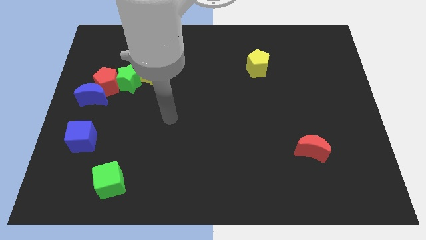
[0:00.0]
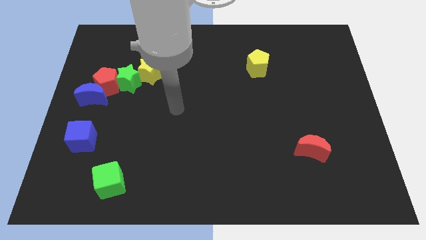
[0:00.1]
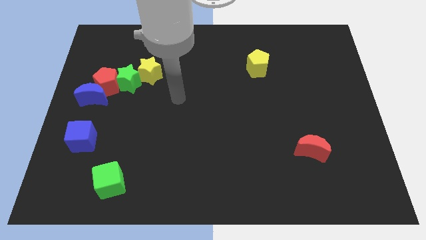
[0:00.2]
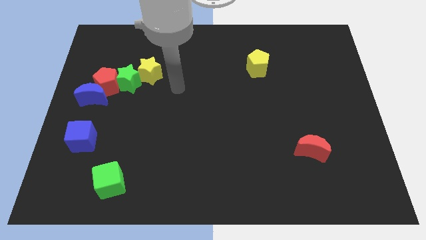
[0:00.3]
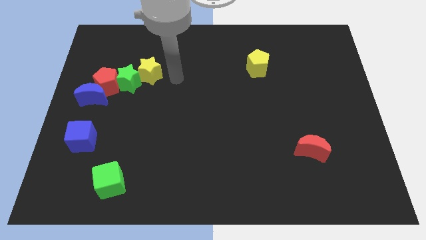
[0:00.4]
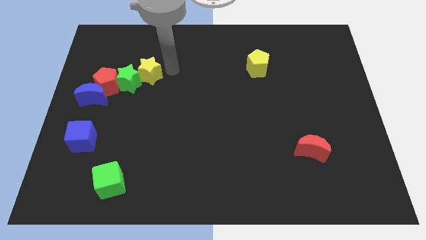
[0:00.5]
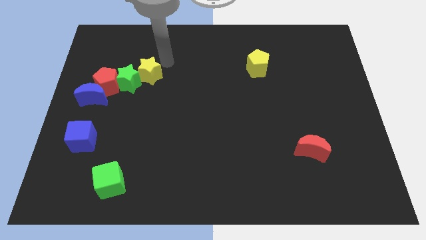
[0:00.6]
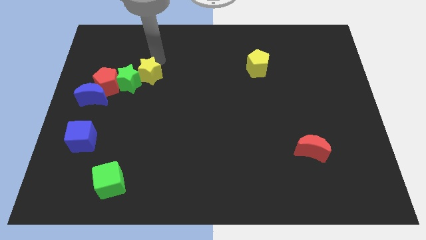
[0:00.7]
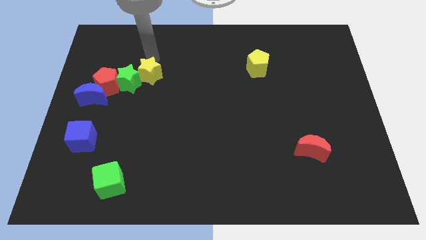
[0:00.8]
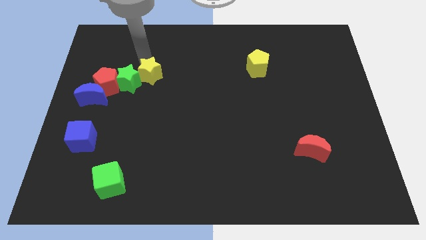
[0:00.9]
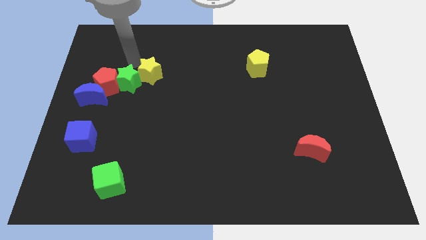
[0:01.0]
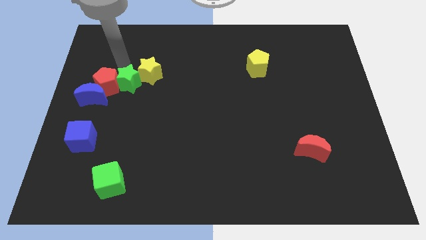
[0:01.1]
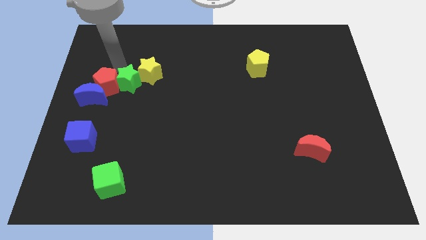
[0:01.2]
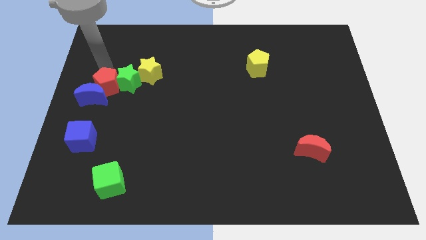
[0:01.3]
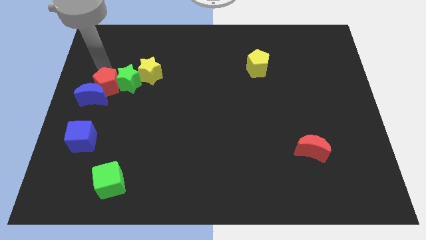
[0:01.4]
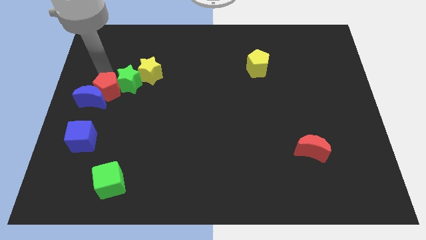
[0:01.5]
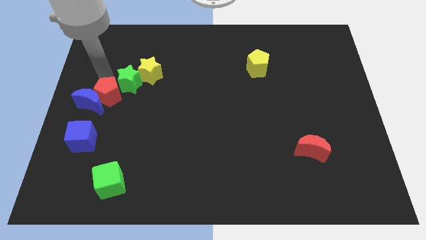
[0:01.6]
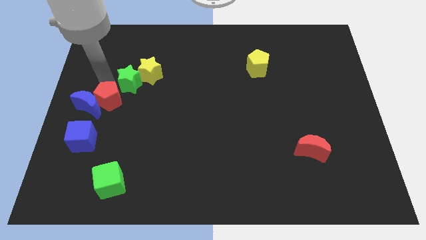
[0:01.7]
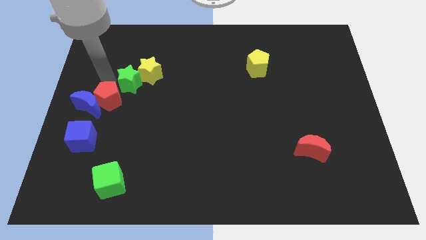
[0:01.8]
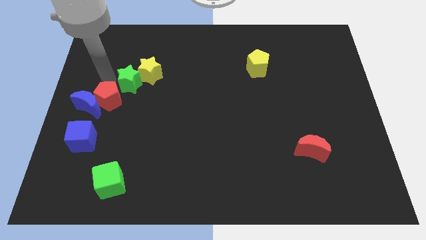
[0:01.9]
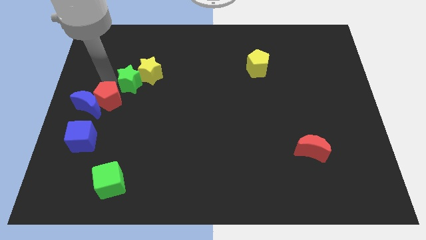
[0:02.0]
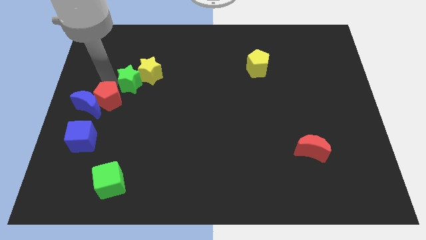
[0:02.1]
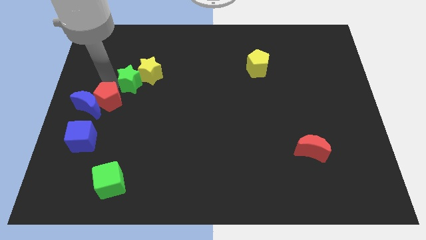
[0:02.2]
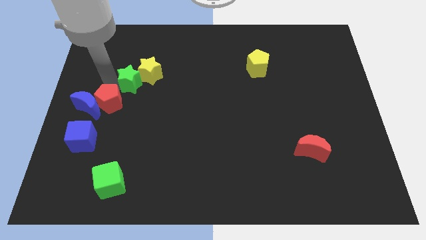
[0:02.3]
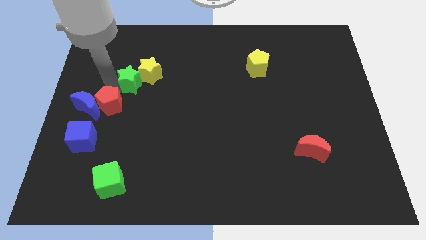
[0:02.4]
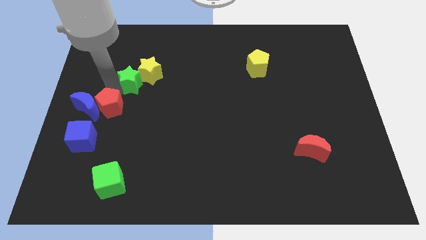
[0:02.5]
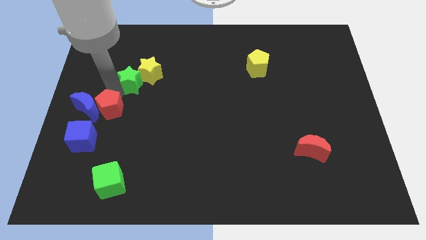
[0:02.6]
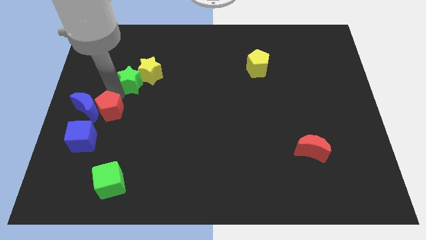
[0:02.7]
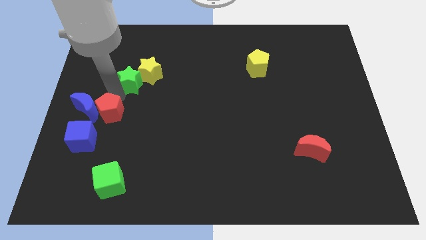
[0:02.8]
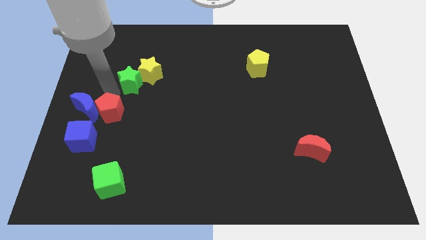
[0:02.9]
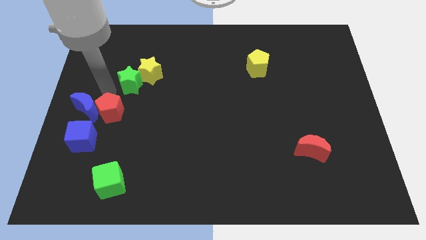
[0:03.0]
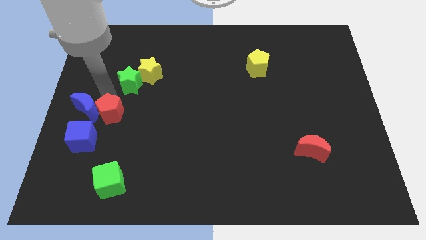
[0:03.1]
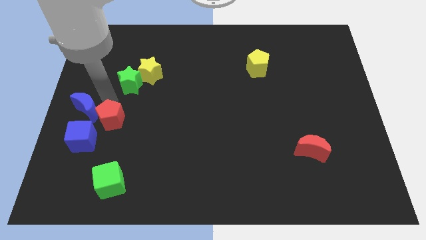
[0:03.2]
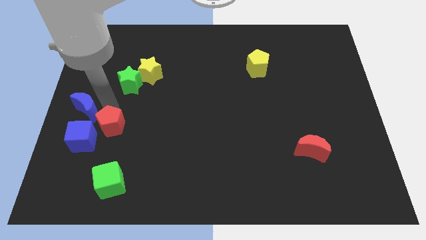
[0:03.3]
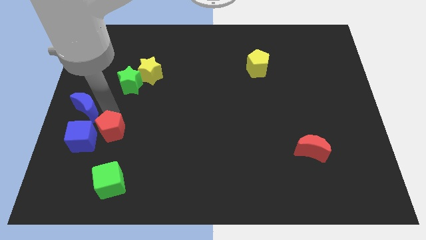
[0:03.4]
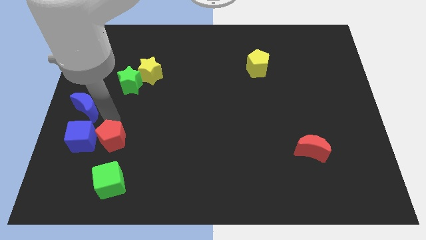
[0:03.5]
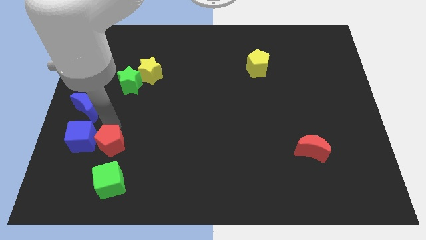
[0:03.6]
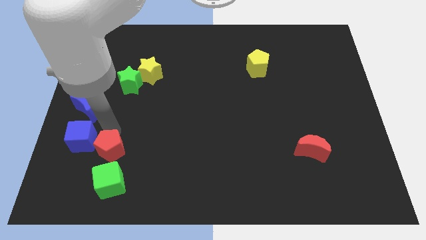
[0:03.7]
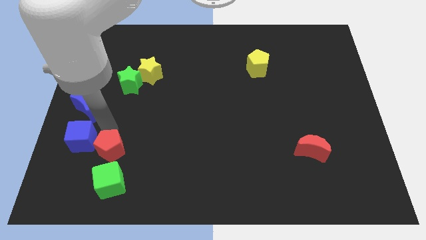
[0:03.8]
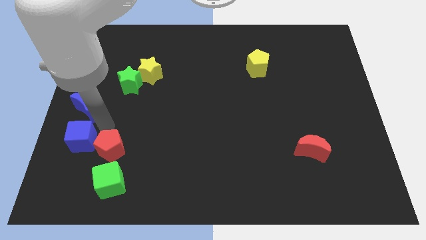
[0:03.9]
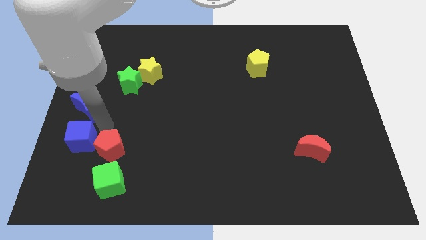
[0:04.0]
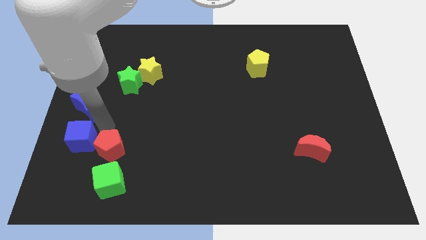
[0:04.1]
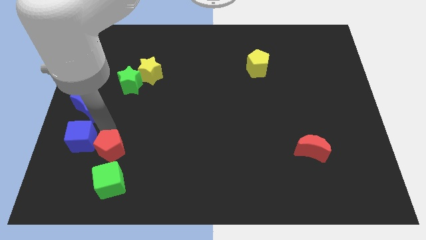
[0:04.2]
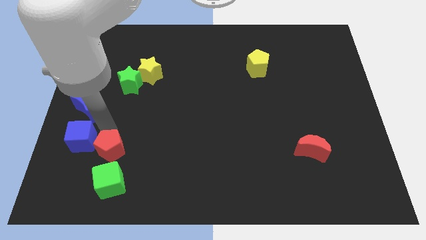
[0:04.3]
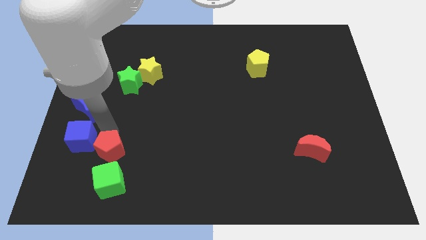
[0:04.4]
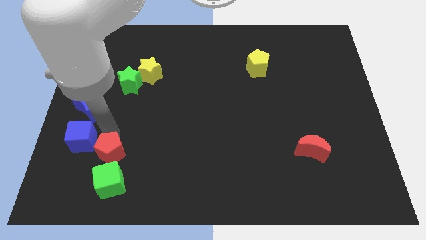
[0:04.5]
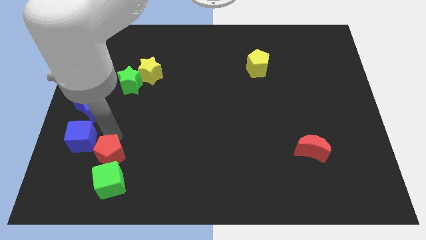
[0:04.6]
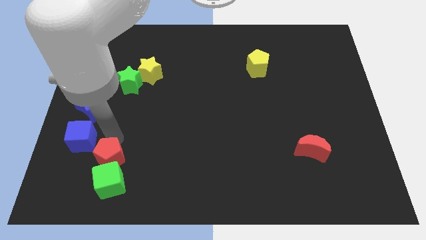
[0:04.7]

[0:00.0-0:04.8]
put the red pentagon next to the green cube

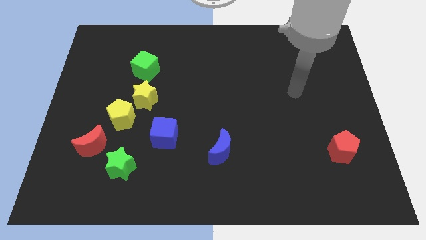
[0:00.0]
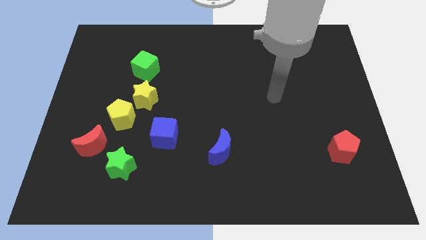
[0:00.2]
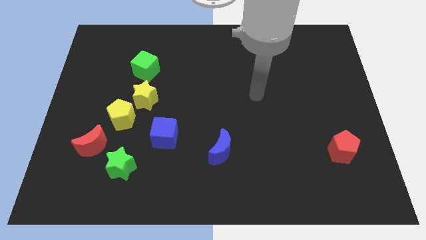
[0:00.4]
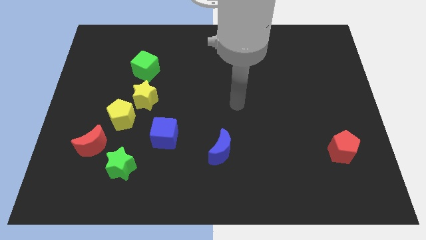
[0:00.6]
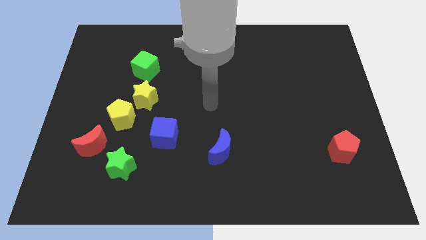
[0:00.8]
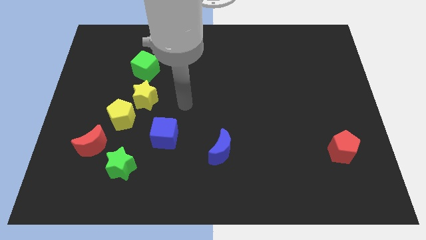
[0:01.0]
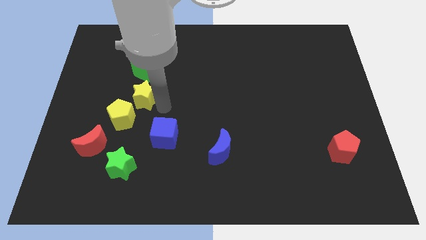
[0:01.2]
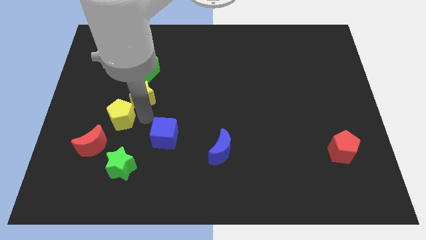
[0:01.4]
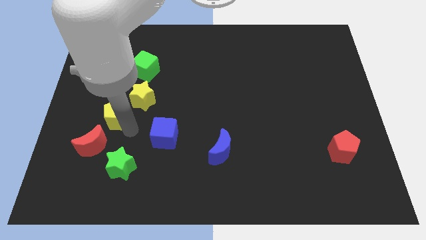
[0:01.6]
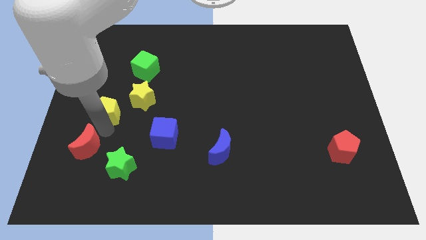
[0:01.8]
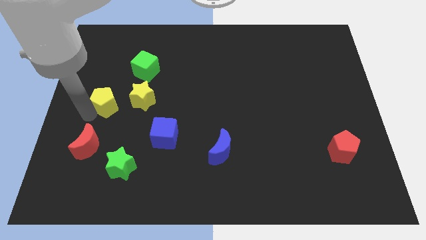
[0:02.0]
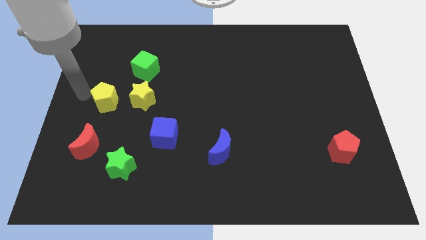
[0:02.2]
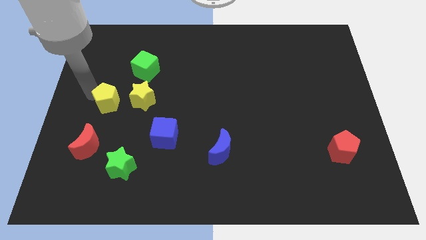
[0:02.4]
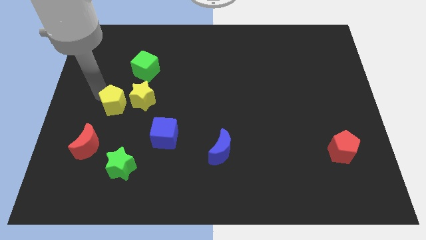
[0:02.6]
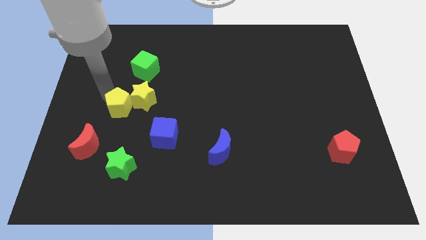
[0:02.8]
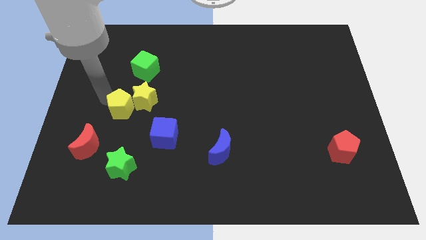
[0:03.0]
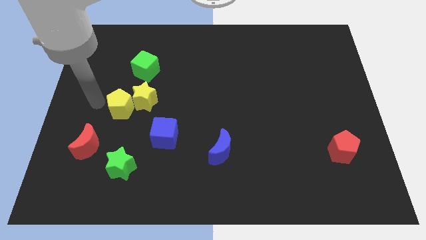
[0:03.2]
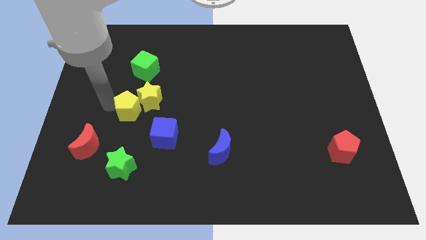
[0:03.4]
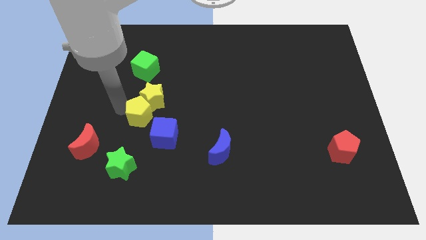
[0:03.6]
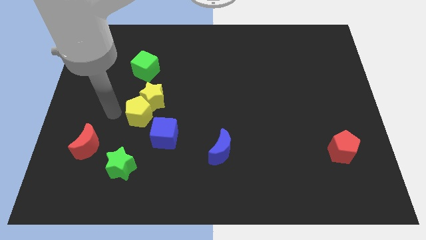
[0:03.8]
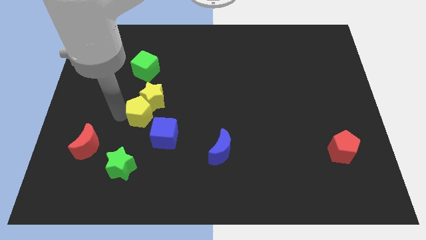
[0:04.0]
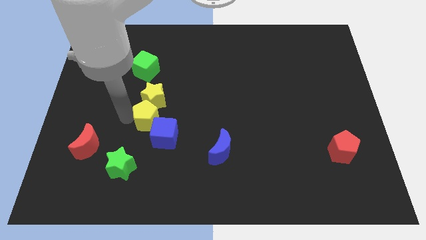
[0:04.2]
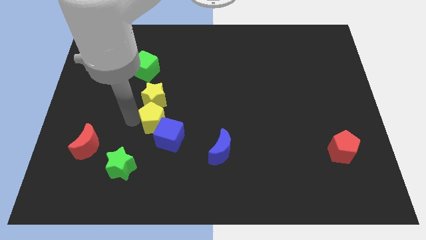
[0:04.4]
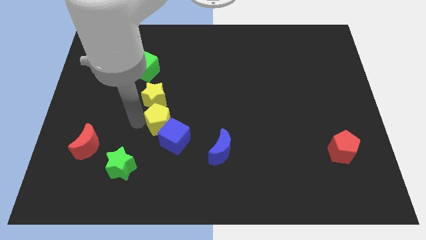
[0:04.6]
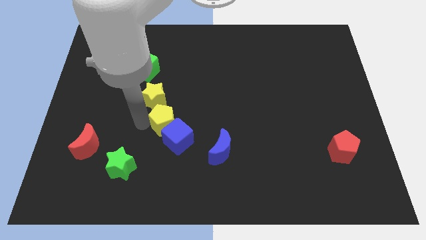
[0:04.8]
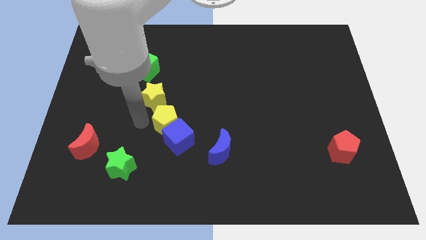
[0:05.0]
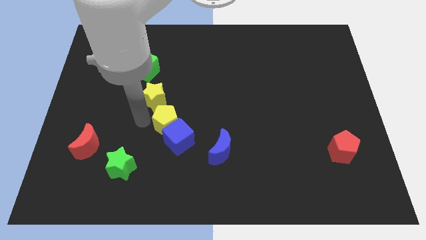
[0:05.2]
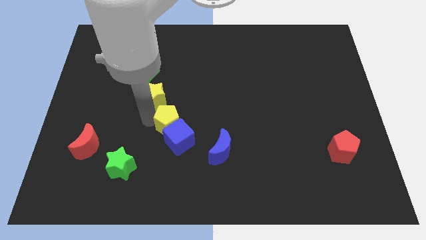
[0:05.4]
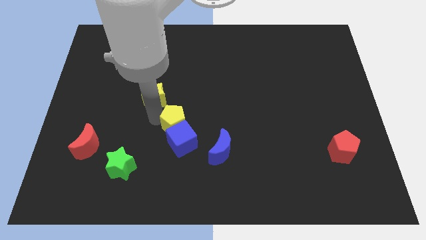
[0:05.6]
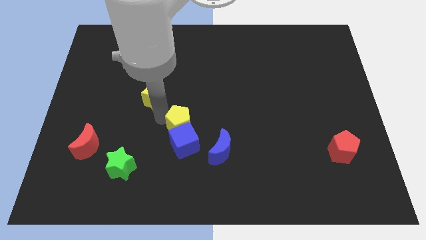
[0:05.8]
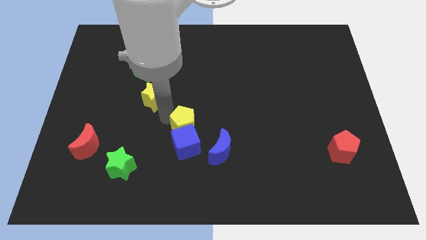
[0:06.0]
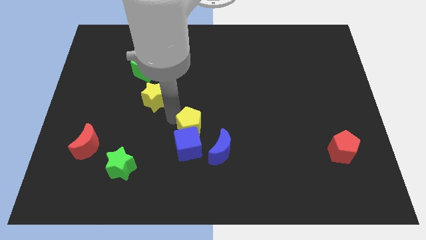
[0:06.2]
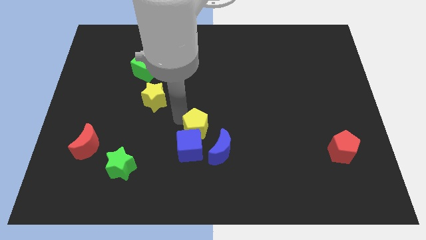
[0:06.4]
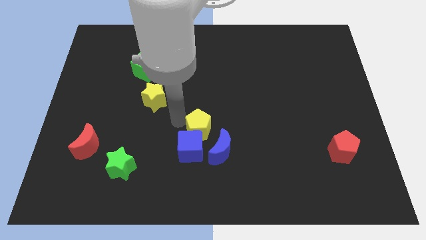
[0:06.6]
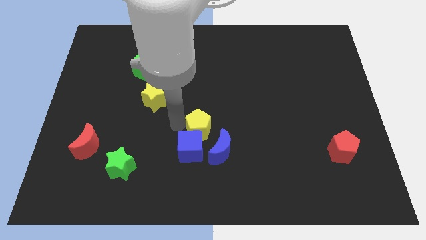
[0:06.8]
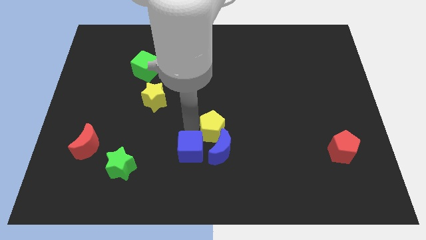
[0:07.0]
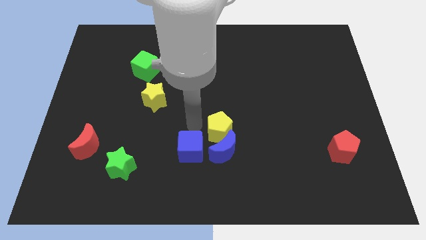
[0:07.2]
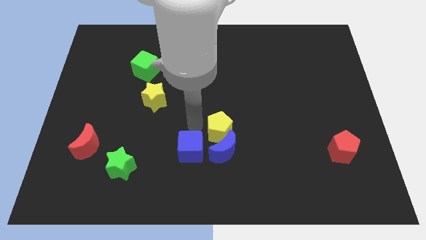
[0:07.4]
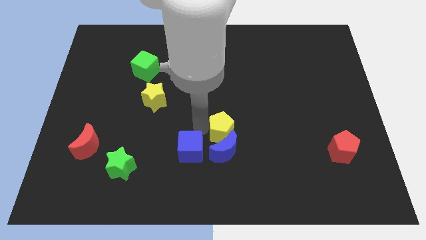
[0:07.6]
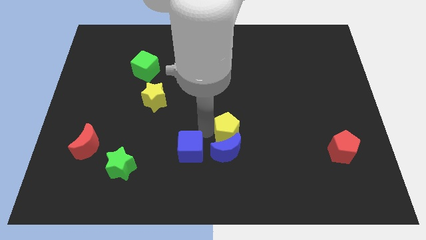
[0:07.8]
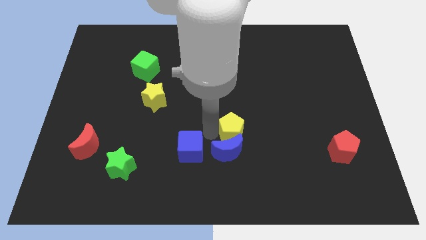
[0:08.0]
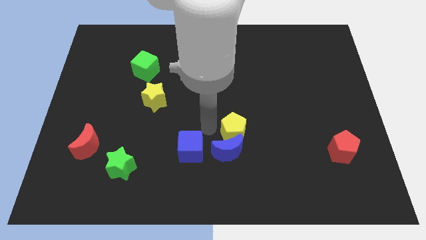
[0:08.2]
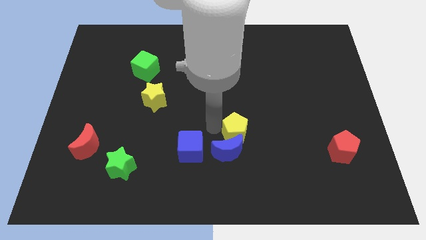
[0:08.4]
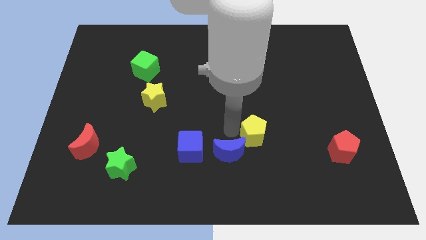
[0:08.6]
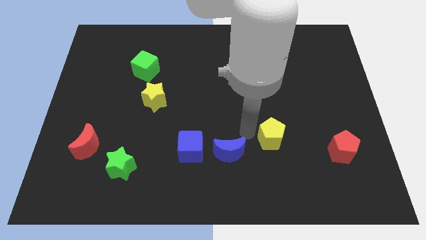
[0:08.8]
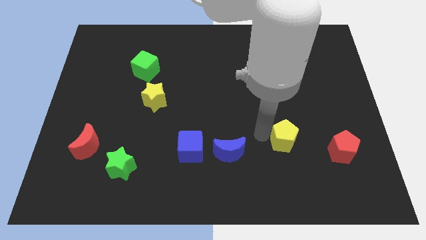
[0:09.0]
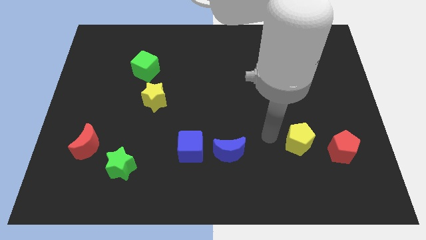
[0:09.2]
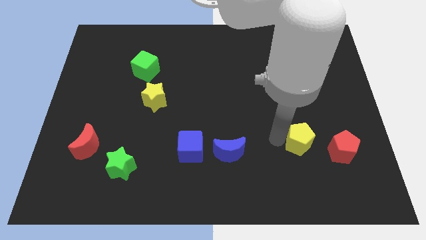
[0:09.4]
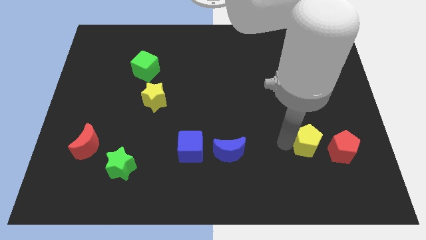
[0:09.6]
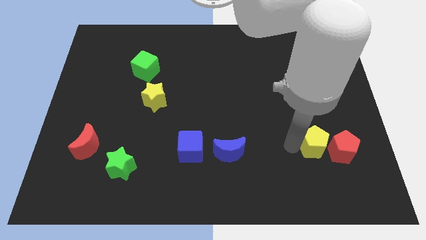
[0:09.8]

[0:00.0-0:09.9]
slide the yellow pentagon towards the red pentagon
